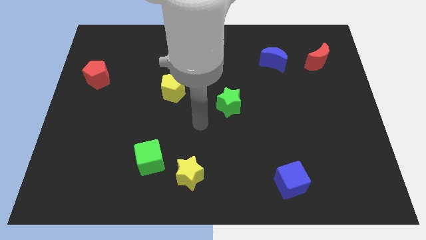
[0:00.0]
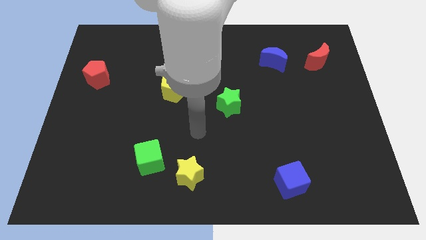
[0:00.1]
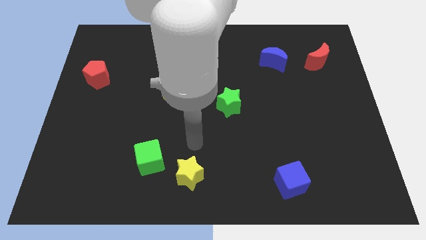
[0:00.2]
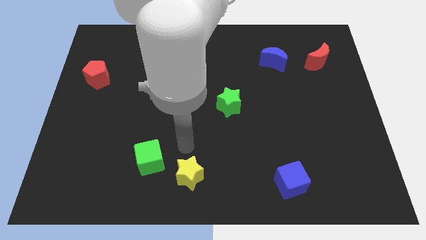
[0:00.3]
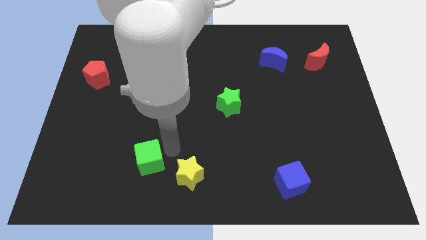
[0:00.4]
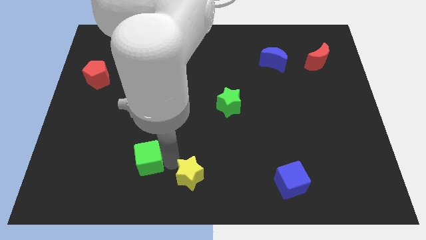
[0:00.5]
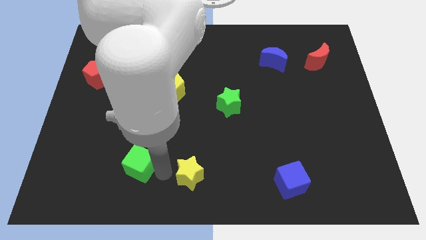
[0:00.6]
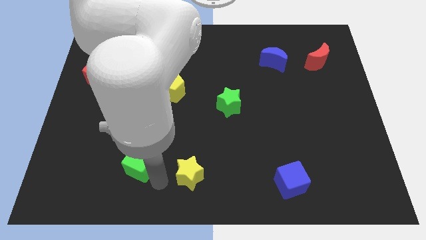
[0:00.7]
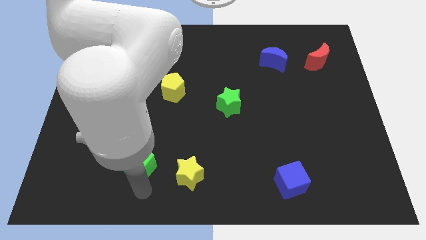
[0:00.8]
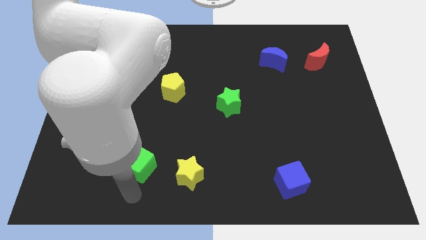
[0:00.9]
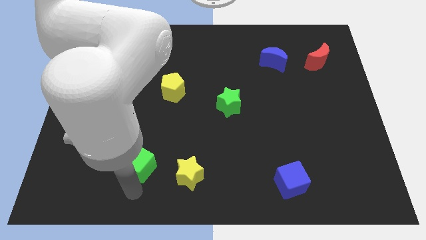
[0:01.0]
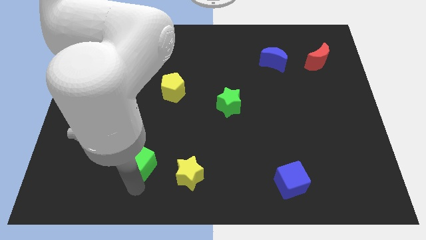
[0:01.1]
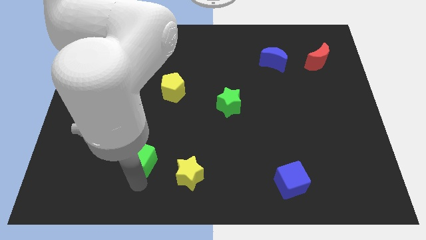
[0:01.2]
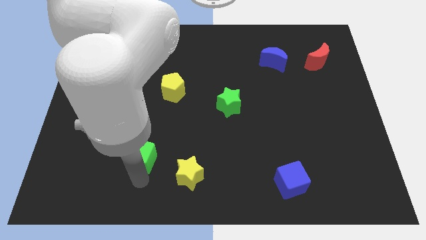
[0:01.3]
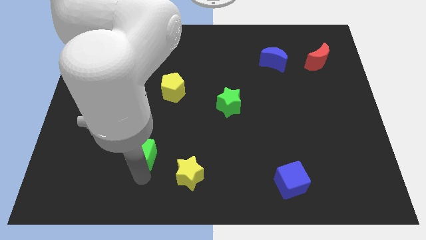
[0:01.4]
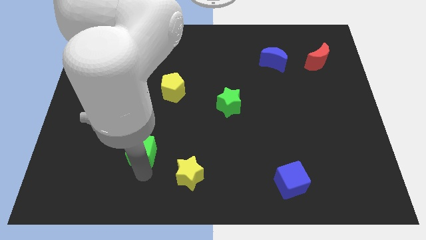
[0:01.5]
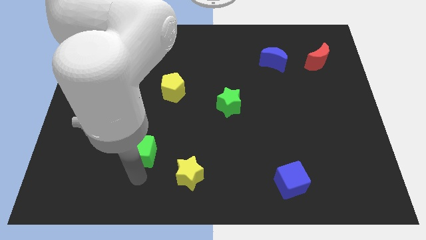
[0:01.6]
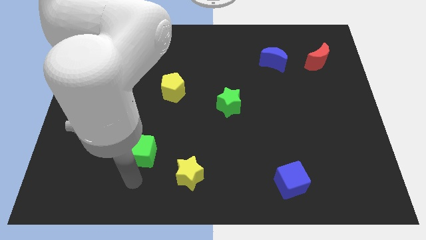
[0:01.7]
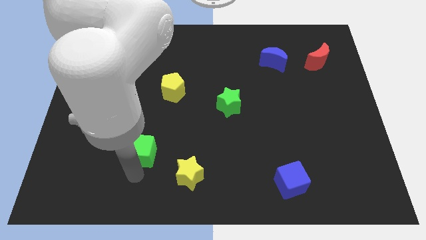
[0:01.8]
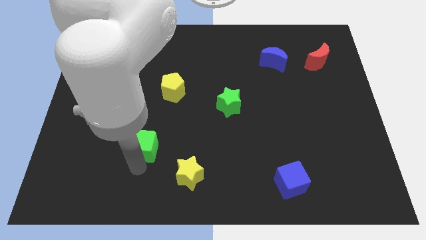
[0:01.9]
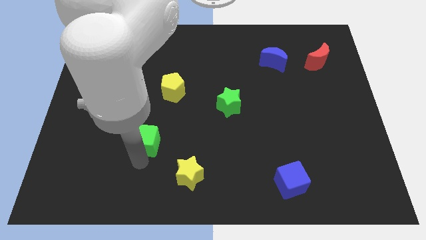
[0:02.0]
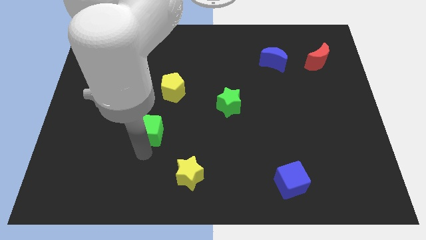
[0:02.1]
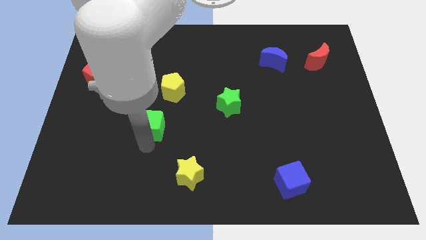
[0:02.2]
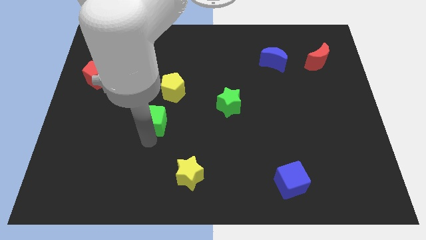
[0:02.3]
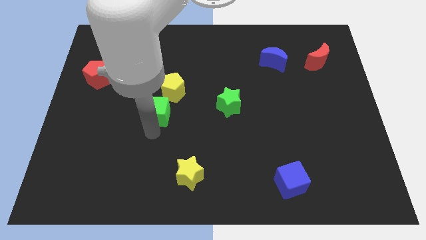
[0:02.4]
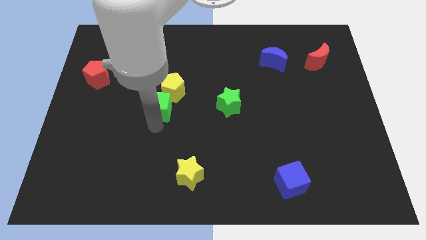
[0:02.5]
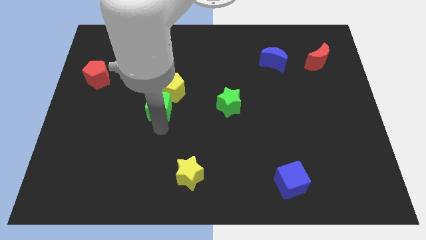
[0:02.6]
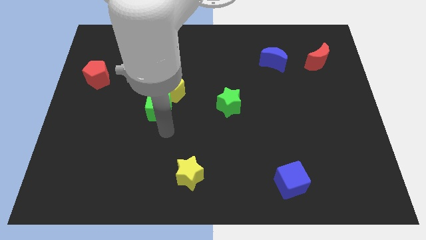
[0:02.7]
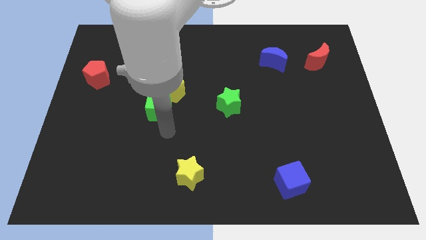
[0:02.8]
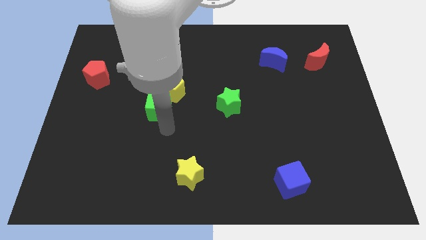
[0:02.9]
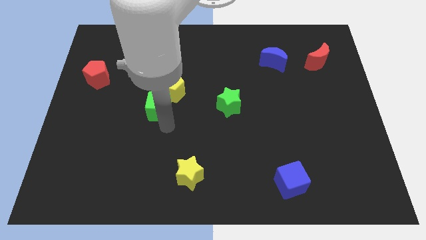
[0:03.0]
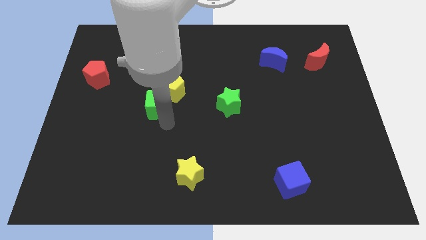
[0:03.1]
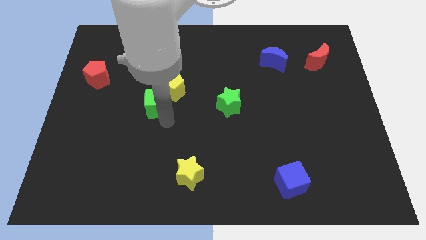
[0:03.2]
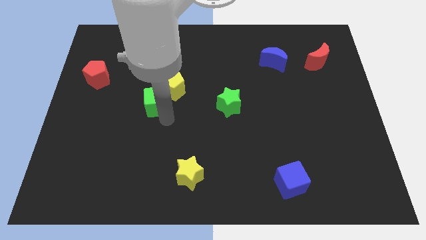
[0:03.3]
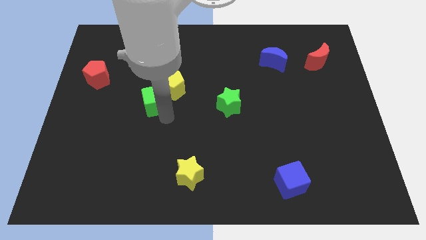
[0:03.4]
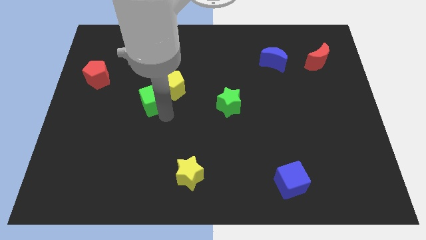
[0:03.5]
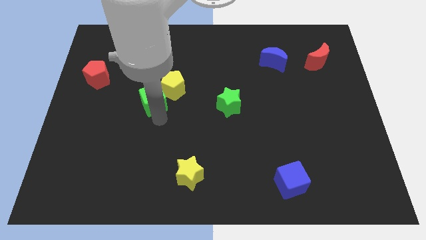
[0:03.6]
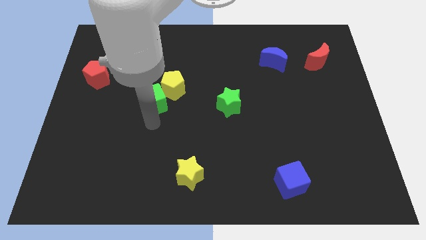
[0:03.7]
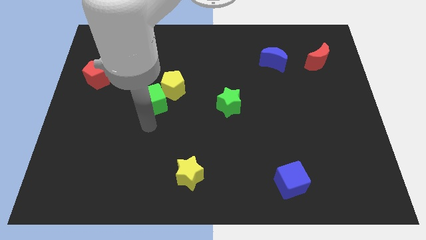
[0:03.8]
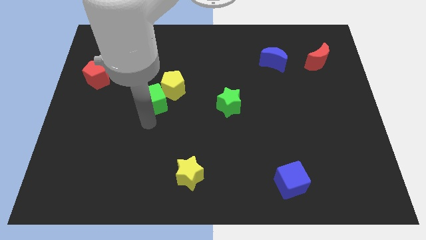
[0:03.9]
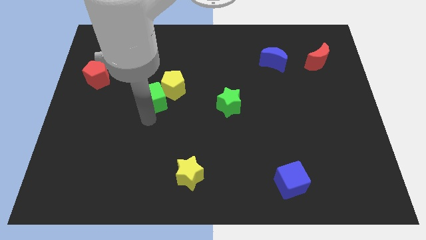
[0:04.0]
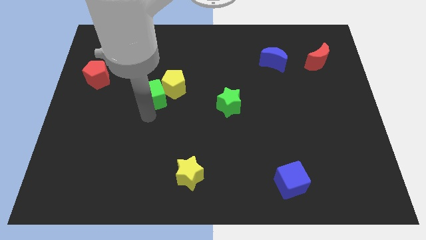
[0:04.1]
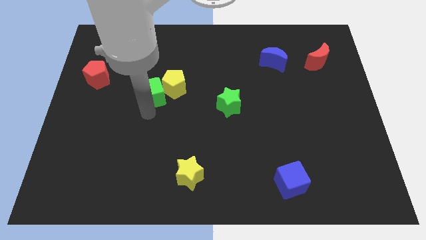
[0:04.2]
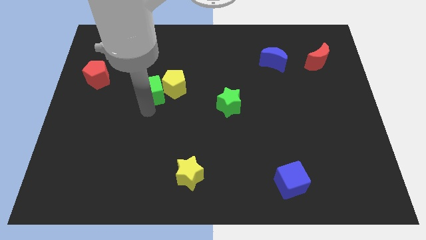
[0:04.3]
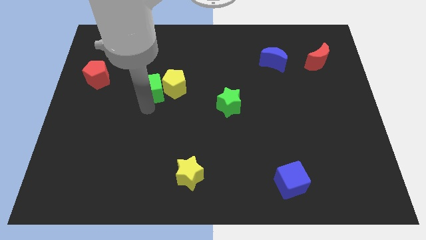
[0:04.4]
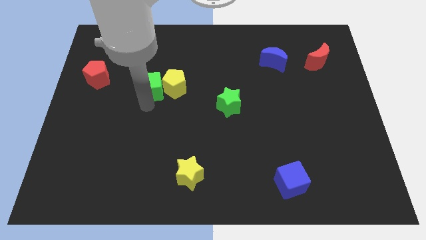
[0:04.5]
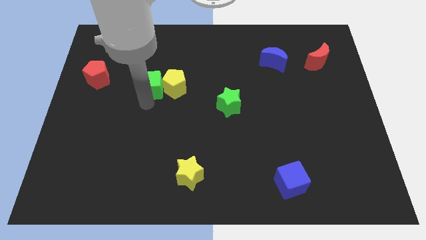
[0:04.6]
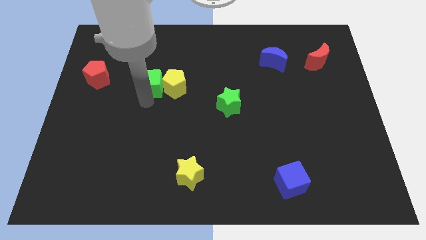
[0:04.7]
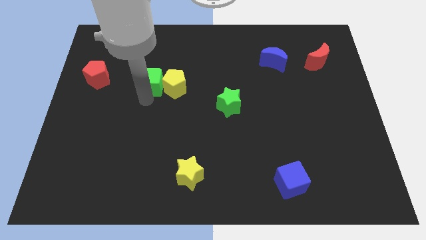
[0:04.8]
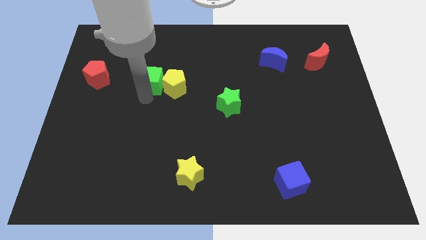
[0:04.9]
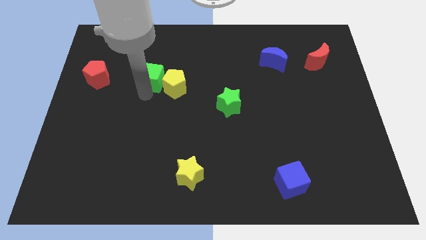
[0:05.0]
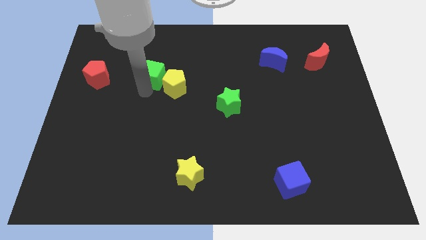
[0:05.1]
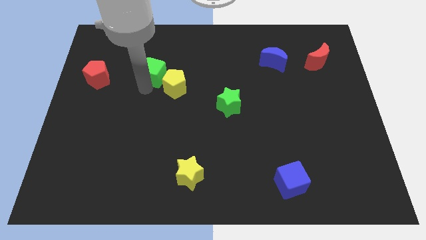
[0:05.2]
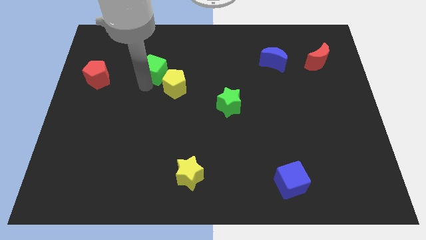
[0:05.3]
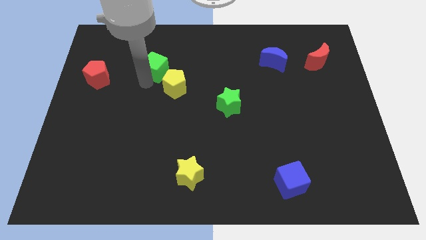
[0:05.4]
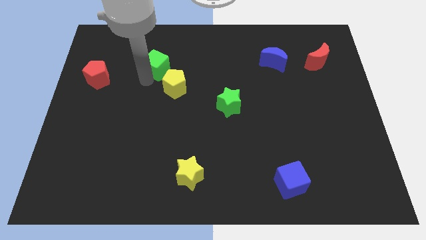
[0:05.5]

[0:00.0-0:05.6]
push the green cube to the top of the yellow pentagon

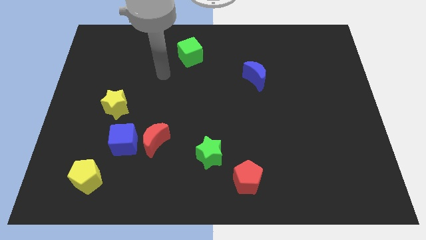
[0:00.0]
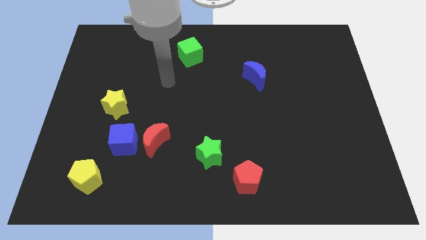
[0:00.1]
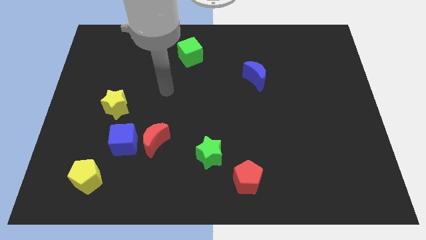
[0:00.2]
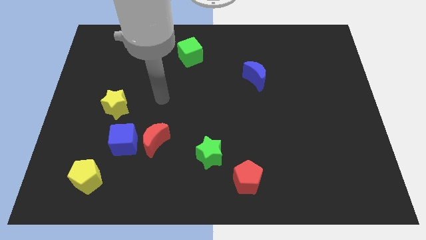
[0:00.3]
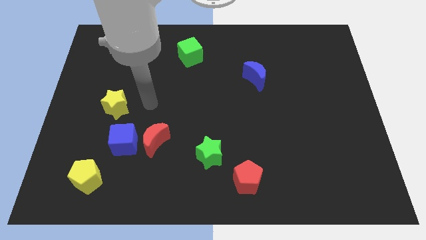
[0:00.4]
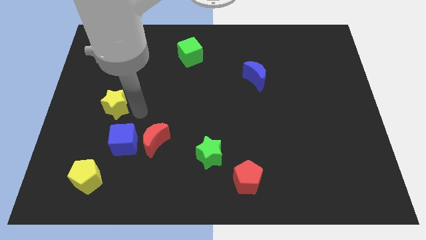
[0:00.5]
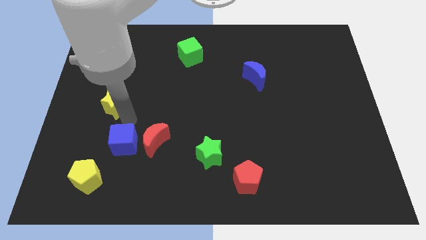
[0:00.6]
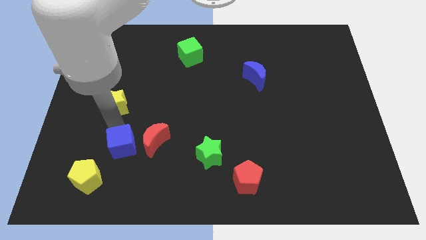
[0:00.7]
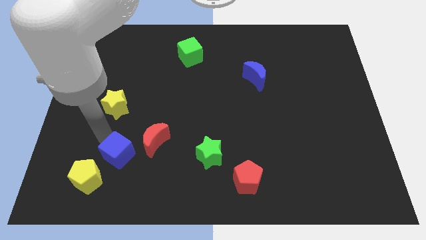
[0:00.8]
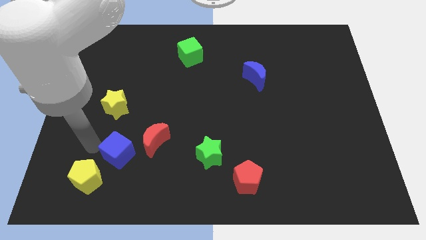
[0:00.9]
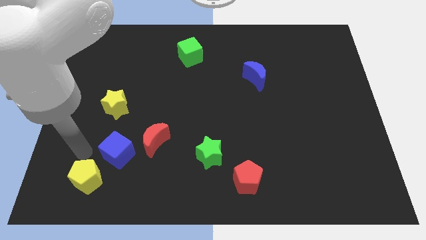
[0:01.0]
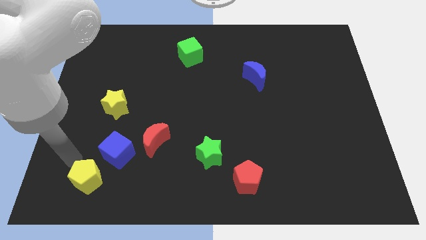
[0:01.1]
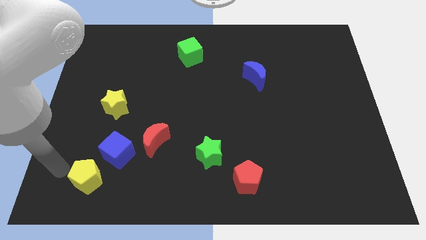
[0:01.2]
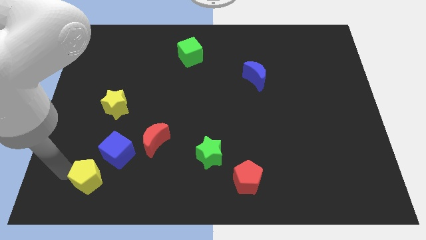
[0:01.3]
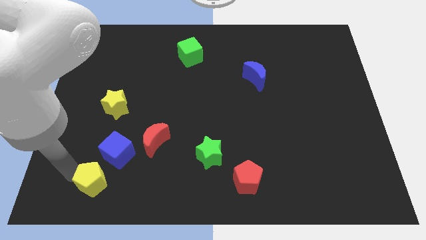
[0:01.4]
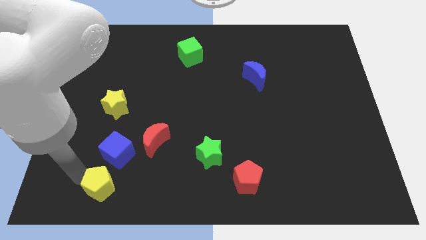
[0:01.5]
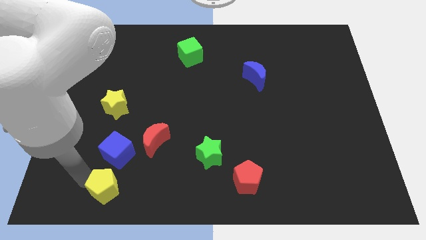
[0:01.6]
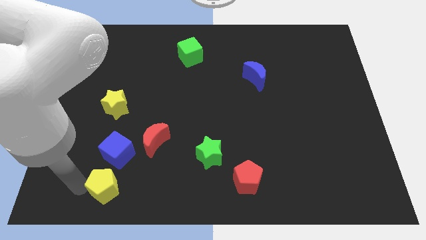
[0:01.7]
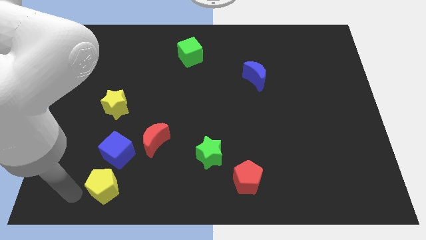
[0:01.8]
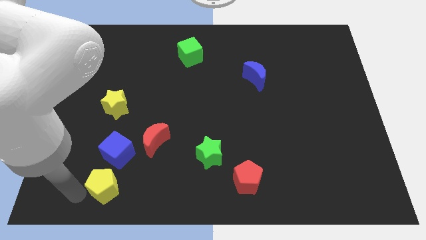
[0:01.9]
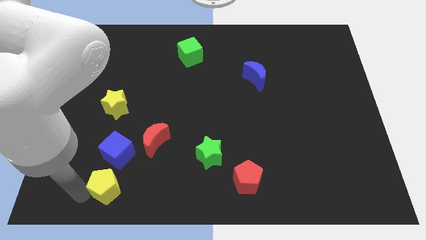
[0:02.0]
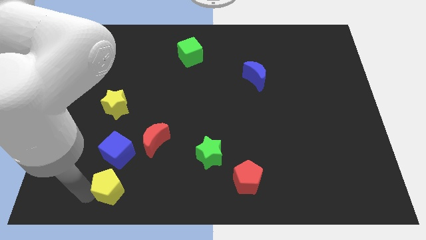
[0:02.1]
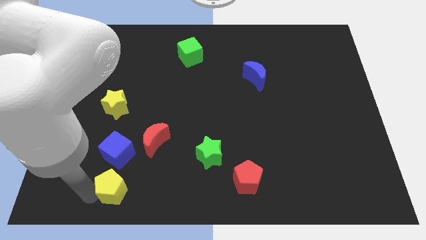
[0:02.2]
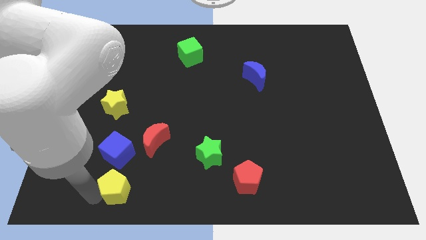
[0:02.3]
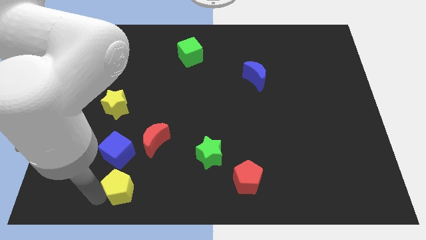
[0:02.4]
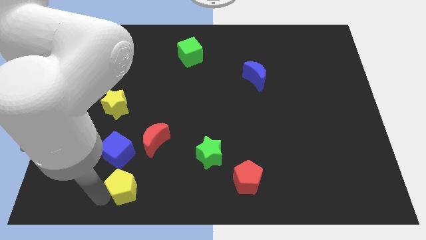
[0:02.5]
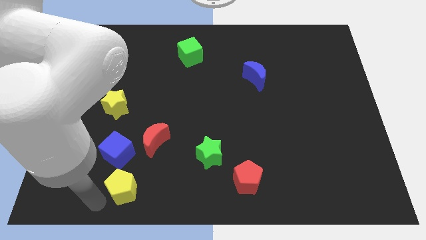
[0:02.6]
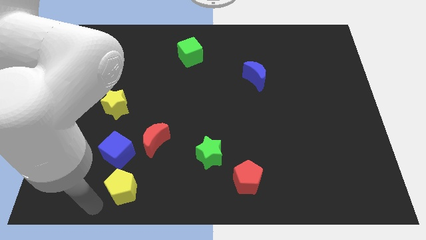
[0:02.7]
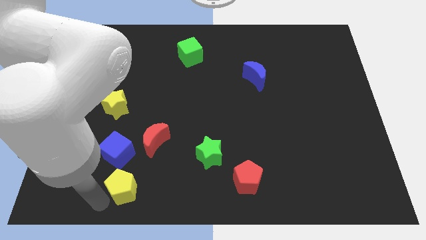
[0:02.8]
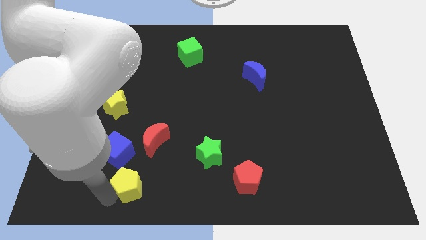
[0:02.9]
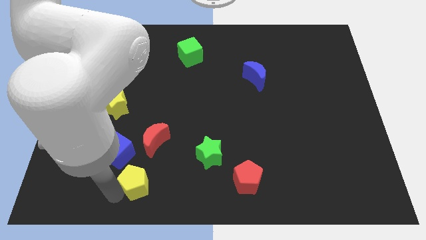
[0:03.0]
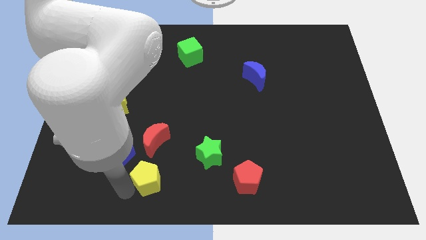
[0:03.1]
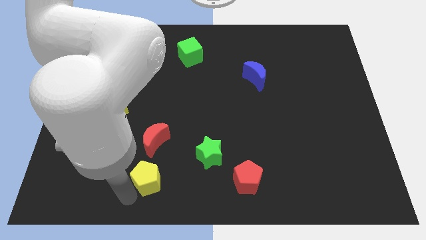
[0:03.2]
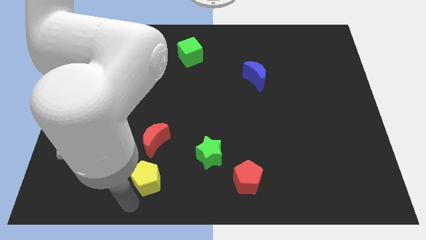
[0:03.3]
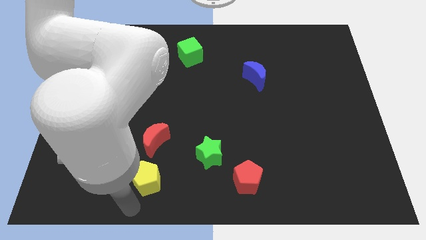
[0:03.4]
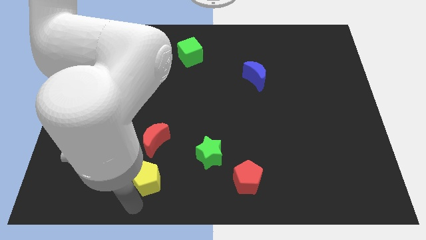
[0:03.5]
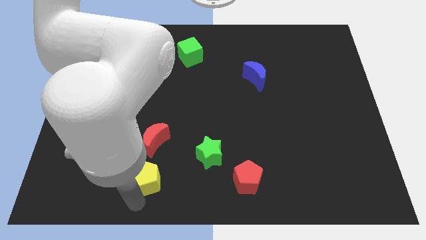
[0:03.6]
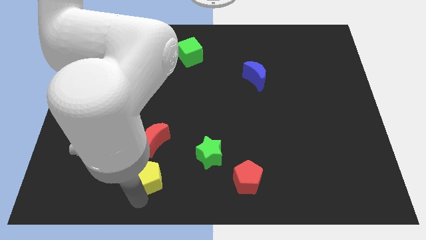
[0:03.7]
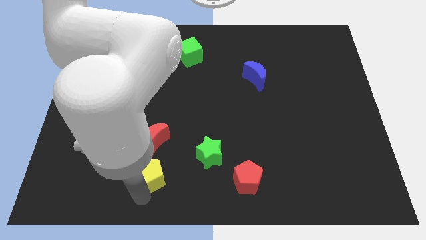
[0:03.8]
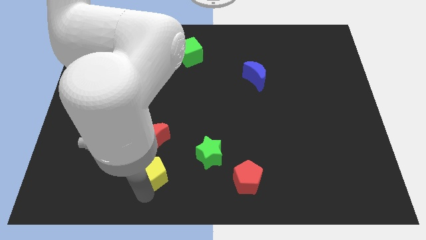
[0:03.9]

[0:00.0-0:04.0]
put the yellow pentagon left of the green star
